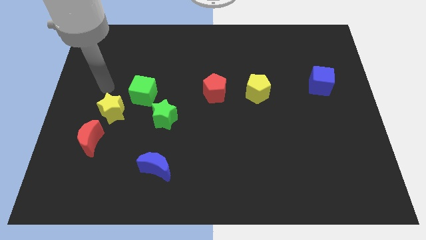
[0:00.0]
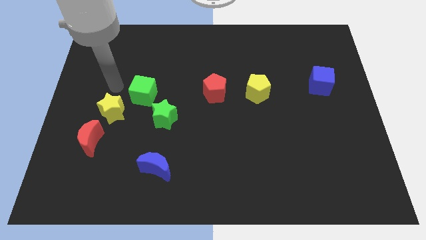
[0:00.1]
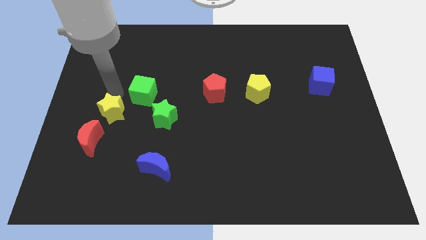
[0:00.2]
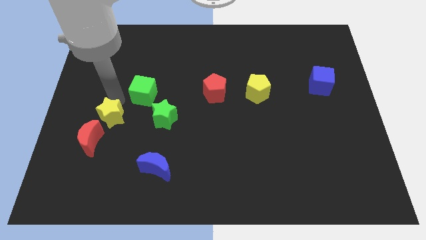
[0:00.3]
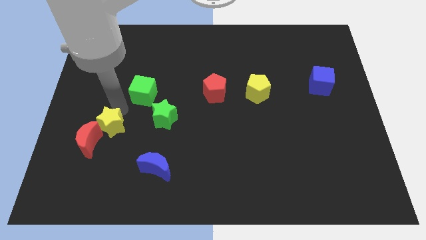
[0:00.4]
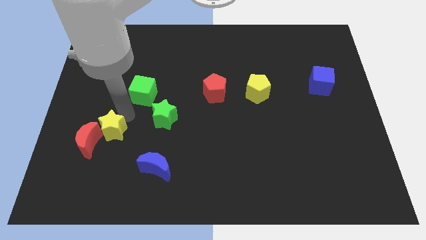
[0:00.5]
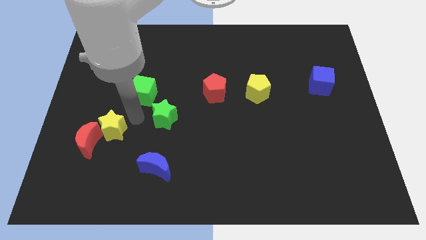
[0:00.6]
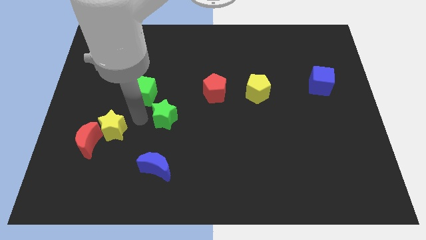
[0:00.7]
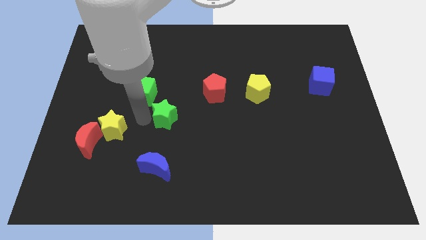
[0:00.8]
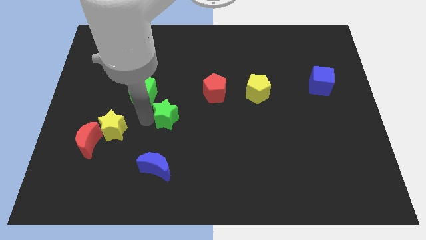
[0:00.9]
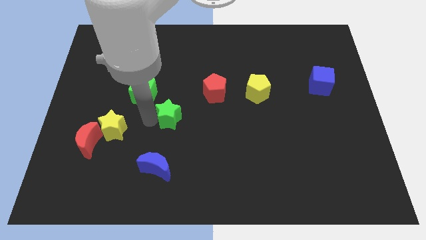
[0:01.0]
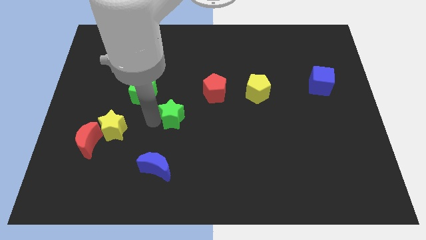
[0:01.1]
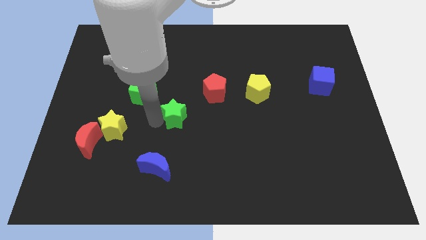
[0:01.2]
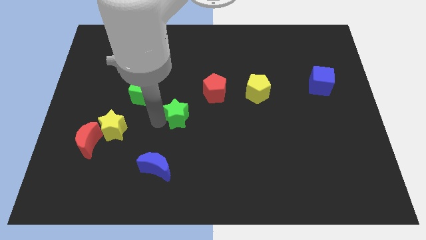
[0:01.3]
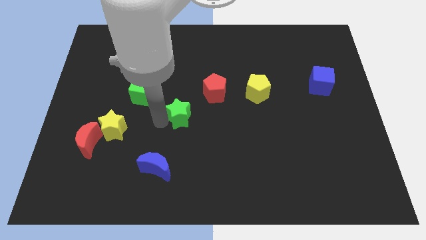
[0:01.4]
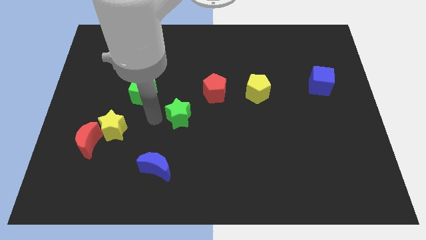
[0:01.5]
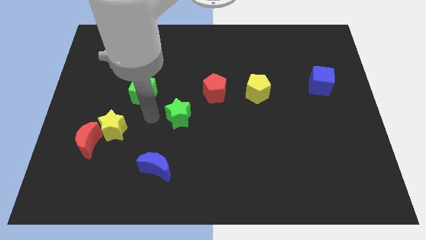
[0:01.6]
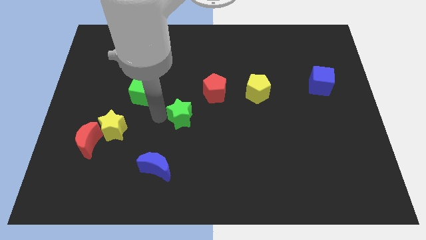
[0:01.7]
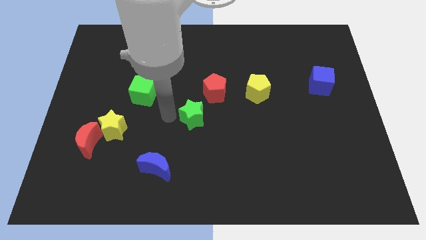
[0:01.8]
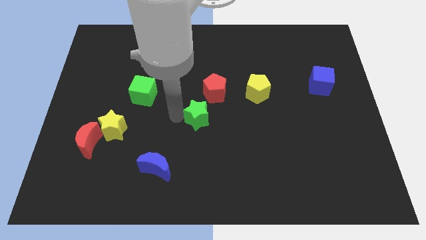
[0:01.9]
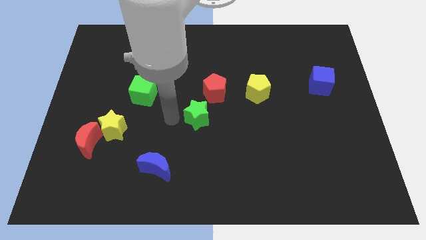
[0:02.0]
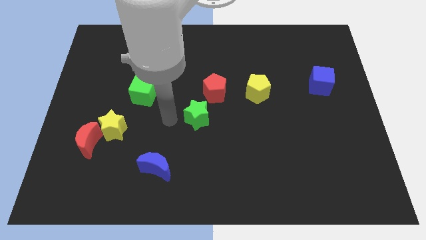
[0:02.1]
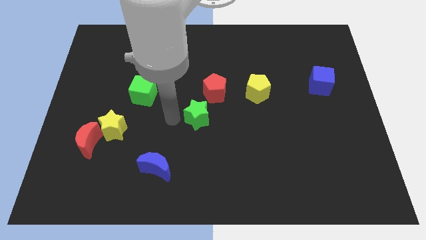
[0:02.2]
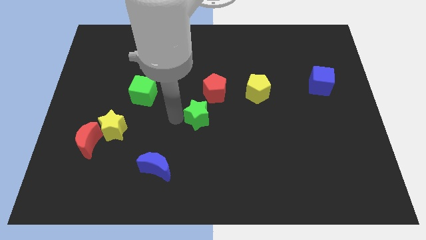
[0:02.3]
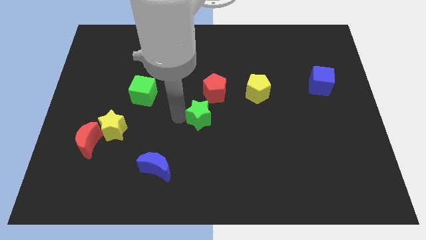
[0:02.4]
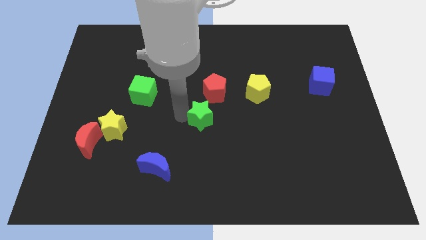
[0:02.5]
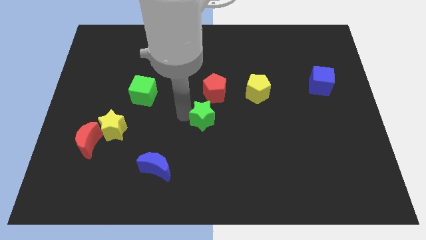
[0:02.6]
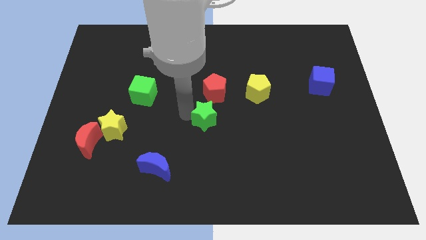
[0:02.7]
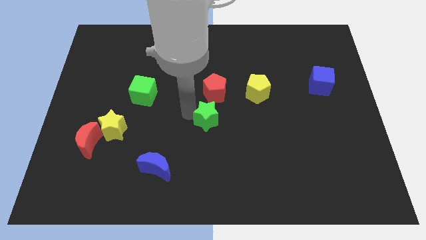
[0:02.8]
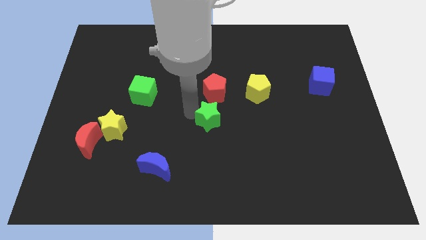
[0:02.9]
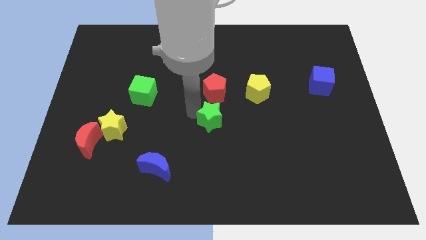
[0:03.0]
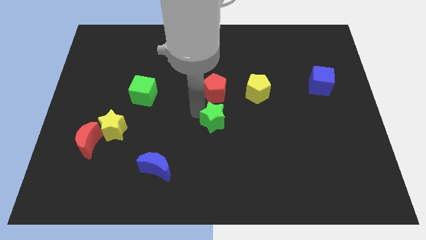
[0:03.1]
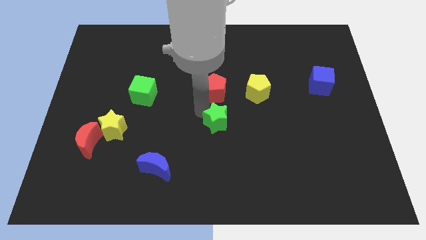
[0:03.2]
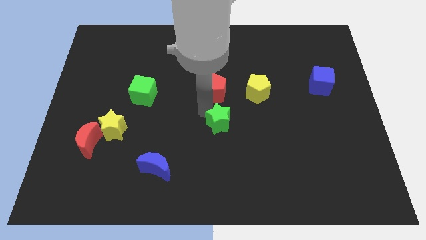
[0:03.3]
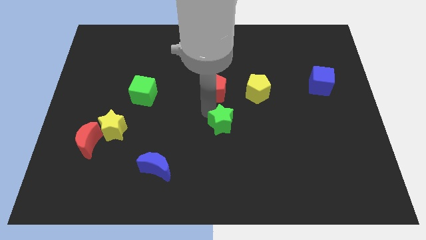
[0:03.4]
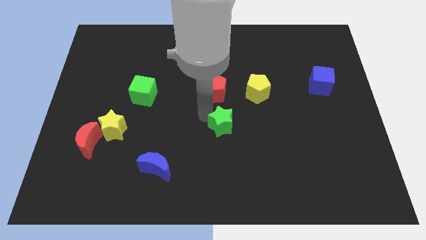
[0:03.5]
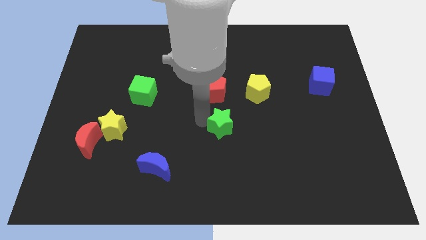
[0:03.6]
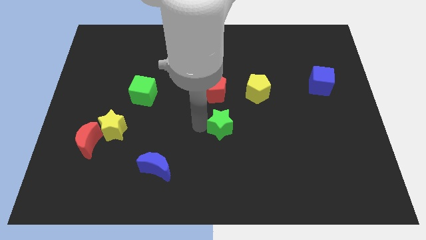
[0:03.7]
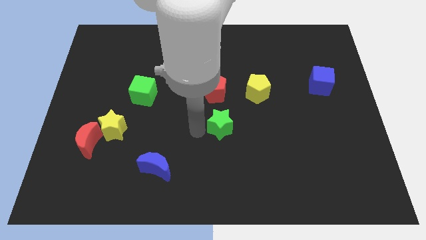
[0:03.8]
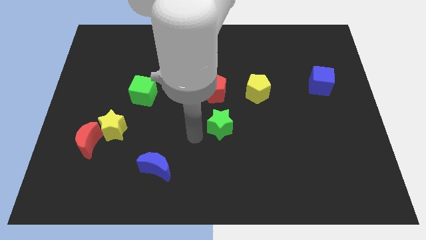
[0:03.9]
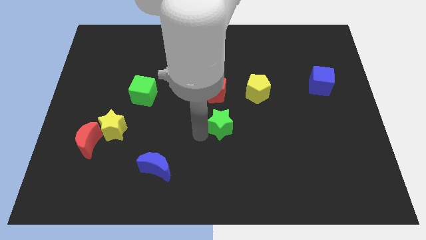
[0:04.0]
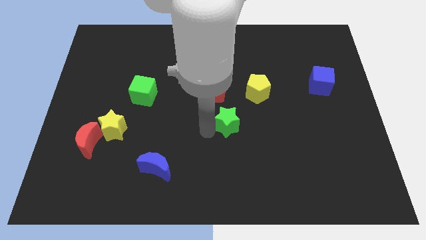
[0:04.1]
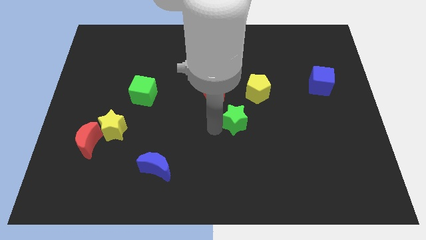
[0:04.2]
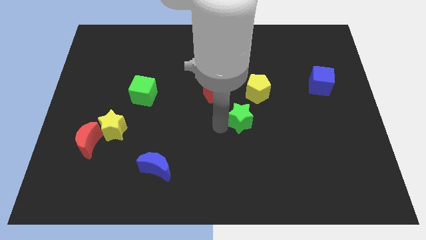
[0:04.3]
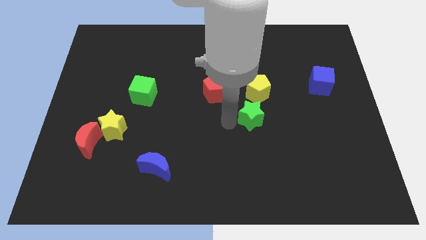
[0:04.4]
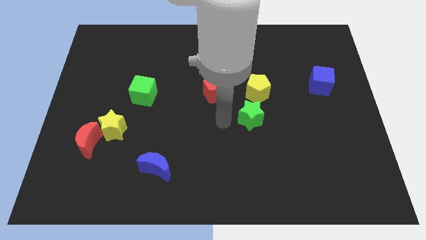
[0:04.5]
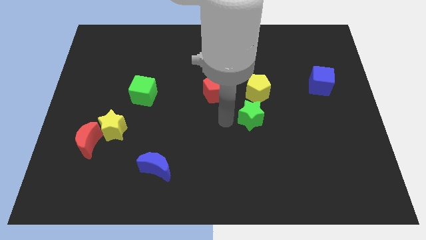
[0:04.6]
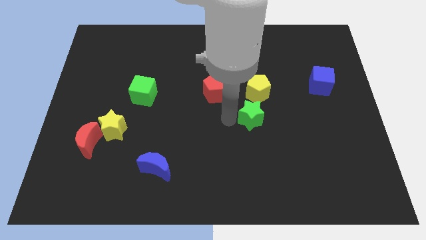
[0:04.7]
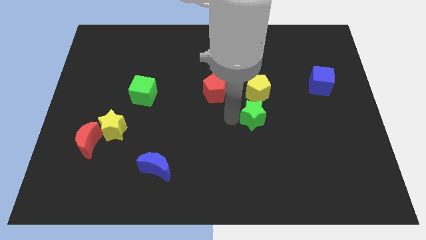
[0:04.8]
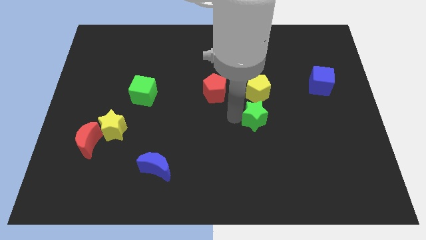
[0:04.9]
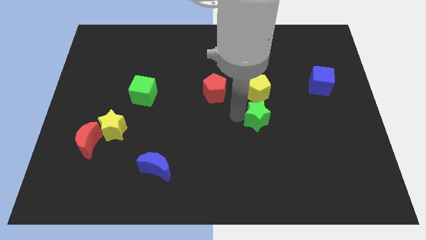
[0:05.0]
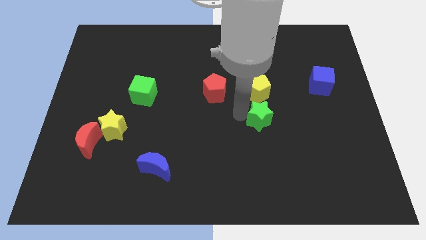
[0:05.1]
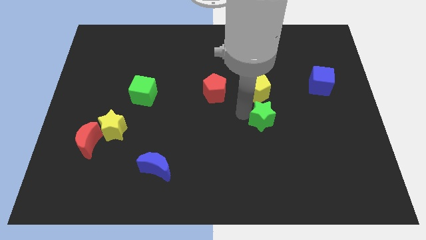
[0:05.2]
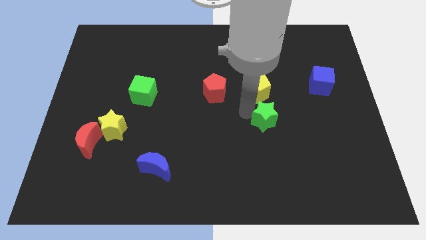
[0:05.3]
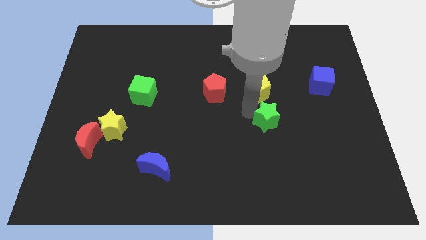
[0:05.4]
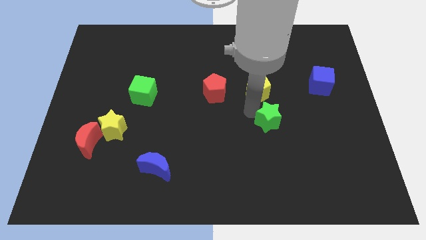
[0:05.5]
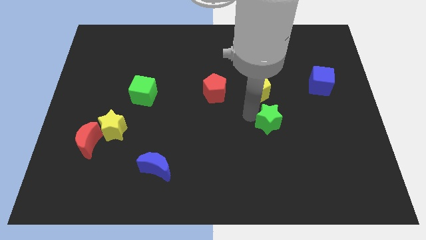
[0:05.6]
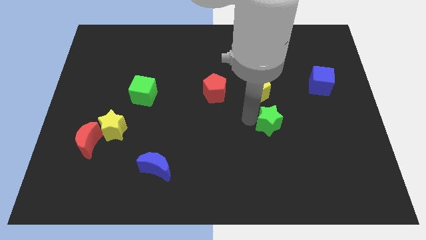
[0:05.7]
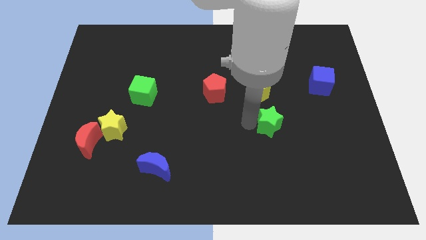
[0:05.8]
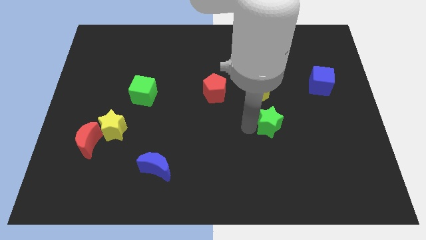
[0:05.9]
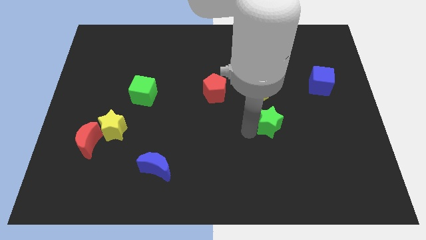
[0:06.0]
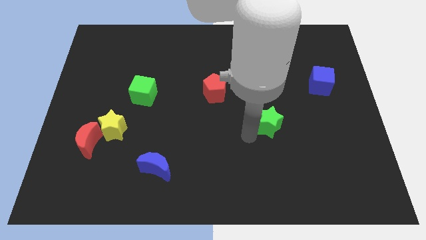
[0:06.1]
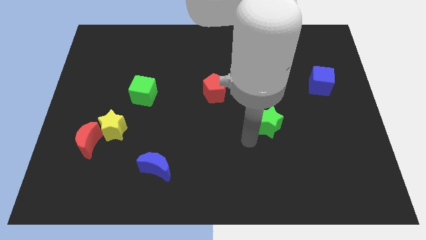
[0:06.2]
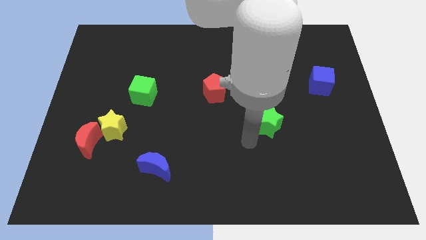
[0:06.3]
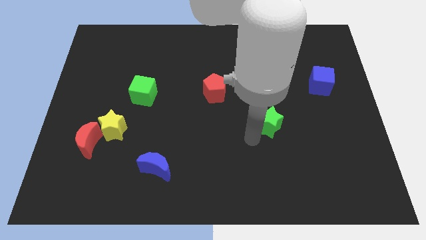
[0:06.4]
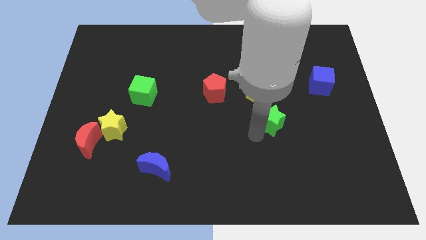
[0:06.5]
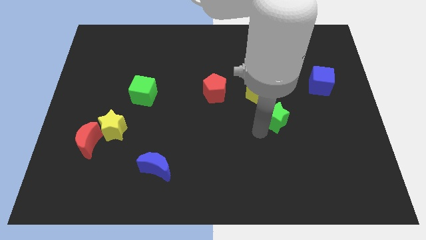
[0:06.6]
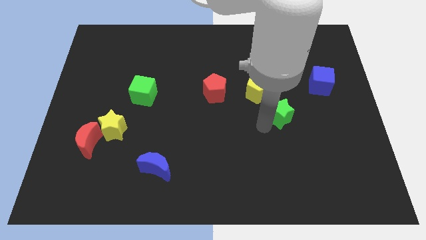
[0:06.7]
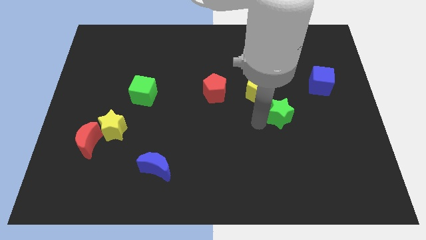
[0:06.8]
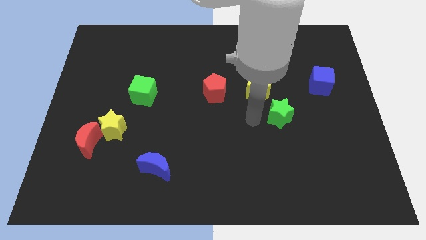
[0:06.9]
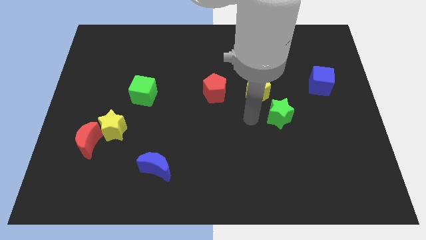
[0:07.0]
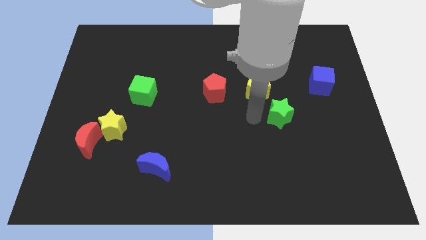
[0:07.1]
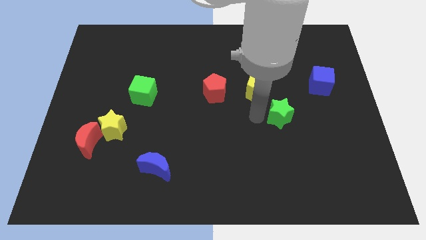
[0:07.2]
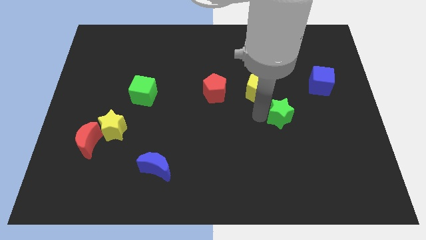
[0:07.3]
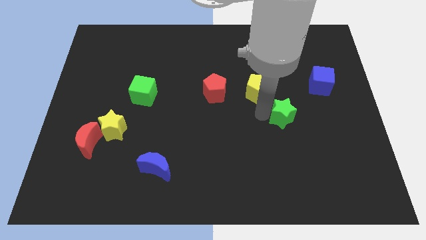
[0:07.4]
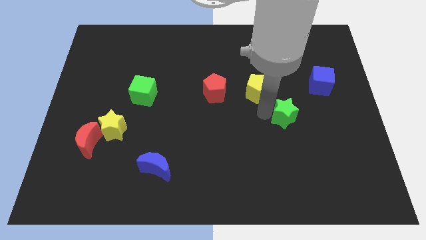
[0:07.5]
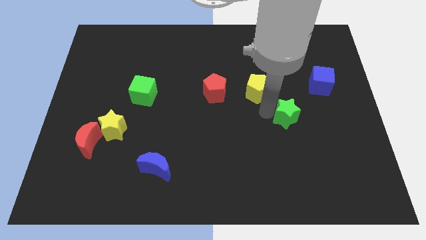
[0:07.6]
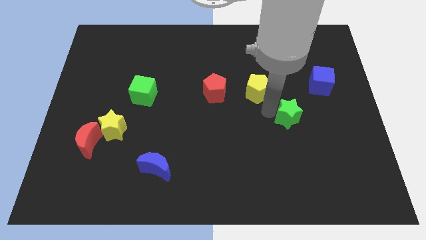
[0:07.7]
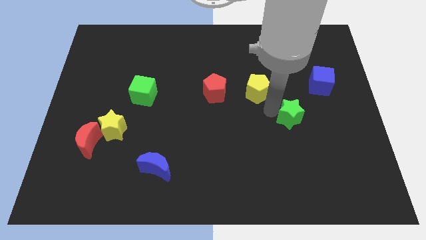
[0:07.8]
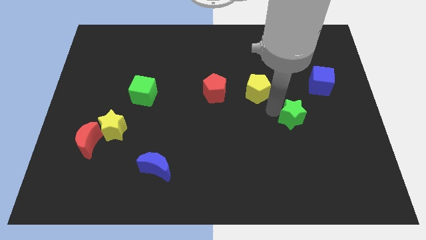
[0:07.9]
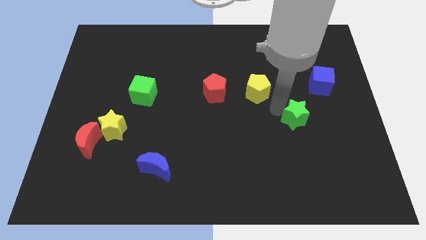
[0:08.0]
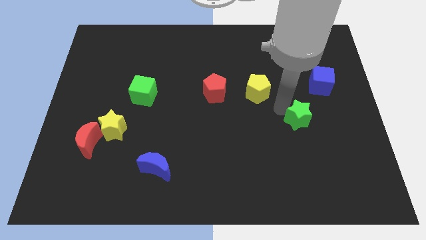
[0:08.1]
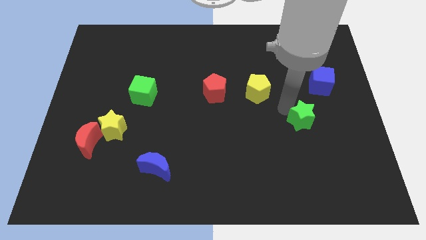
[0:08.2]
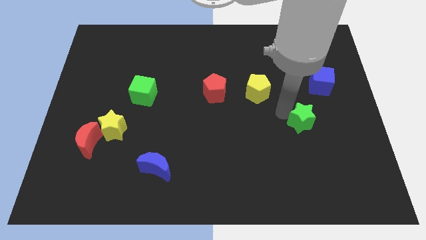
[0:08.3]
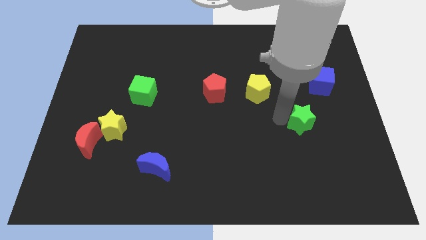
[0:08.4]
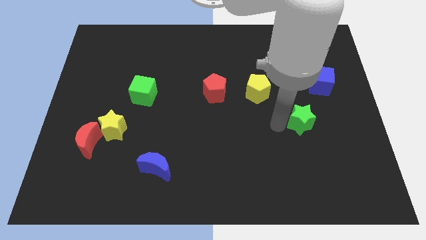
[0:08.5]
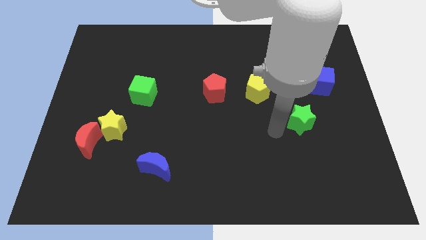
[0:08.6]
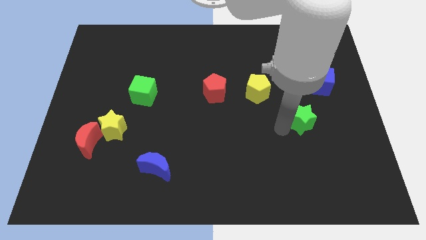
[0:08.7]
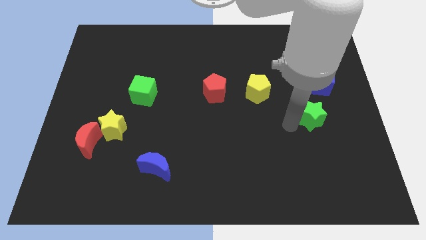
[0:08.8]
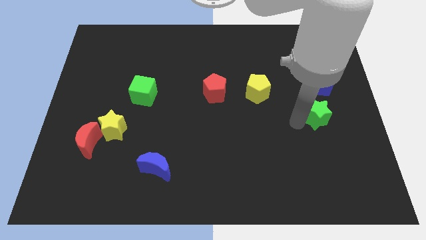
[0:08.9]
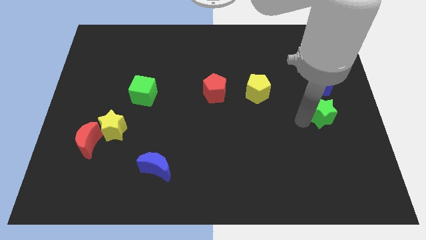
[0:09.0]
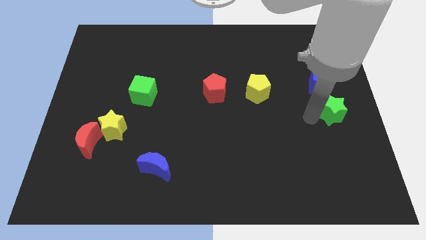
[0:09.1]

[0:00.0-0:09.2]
move the green star to the center right
